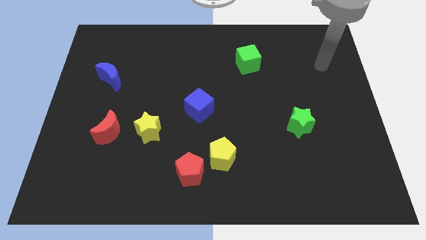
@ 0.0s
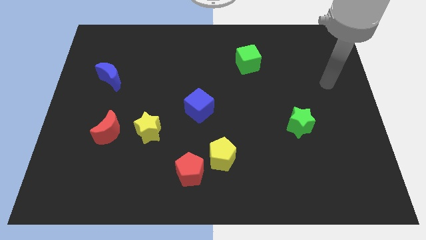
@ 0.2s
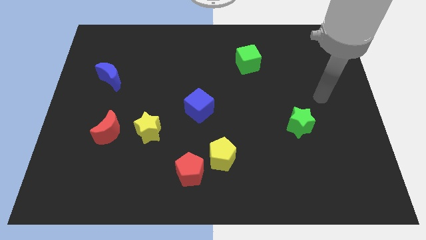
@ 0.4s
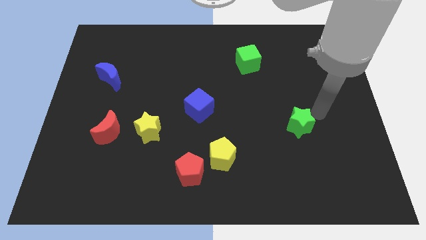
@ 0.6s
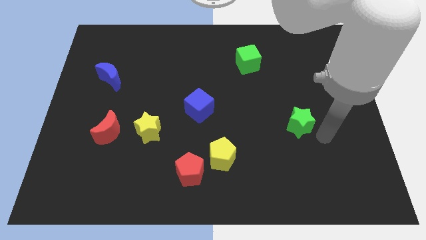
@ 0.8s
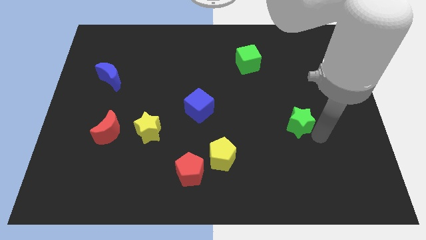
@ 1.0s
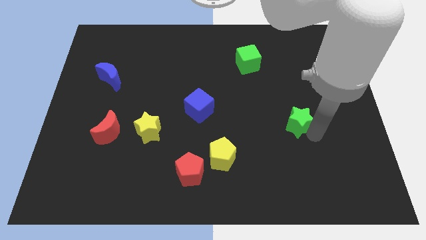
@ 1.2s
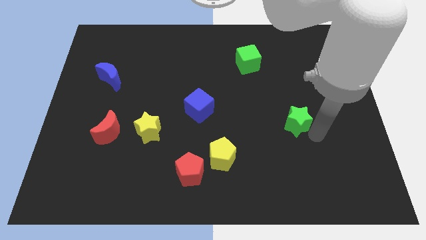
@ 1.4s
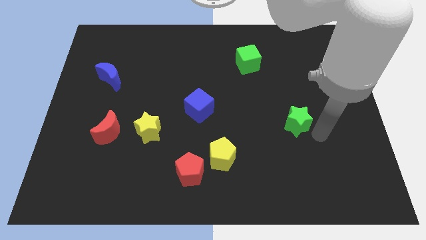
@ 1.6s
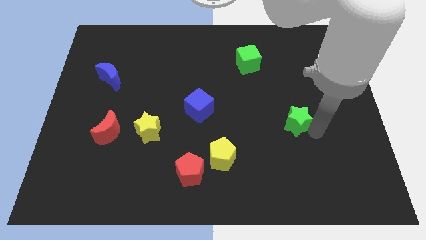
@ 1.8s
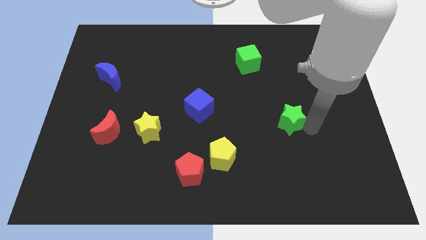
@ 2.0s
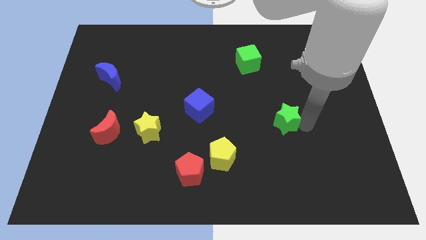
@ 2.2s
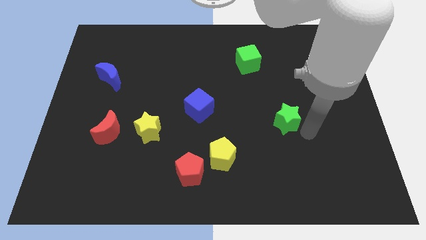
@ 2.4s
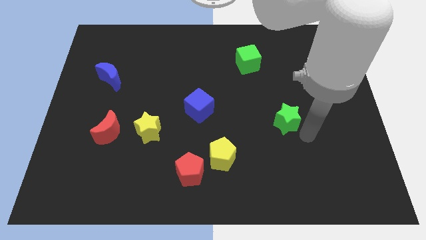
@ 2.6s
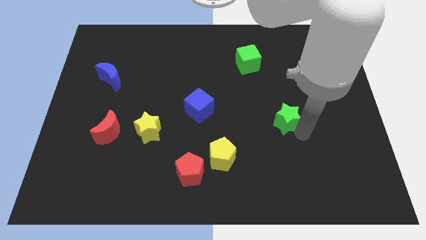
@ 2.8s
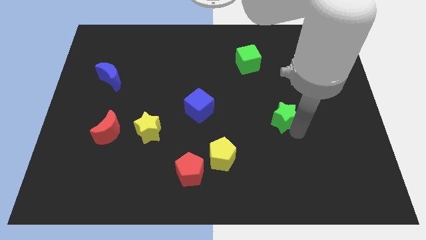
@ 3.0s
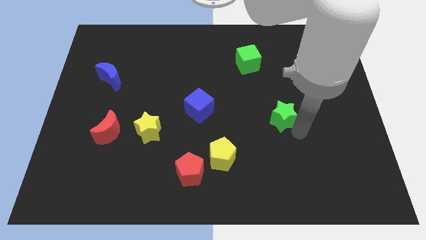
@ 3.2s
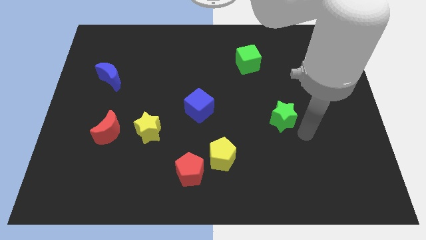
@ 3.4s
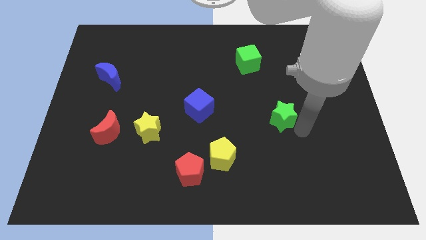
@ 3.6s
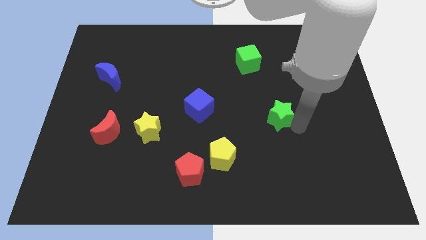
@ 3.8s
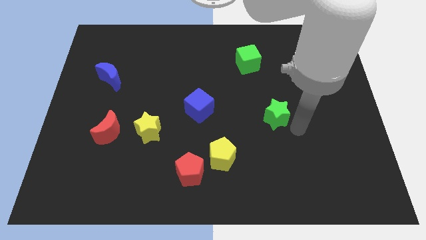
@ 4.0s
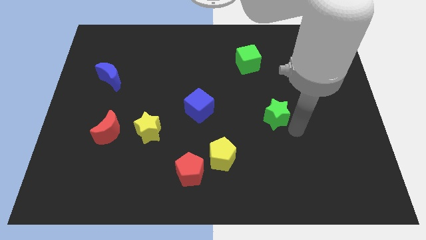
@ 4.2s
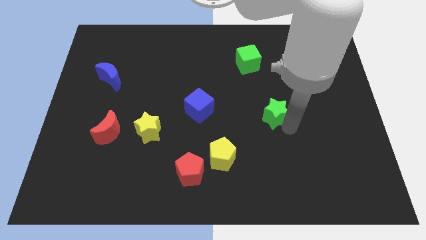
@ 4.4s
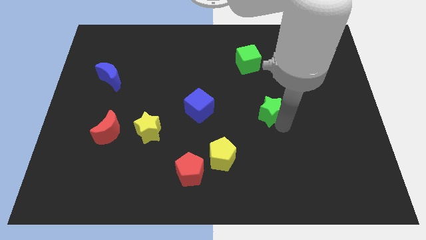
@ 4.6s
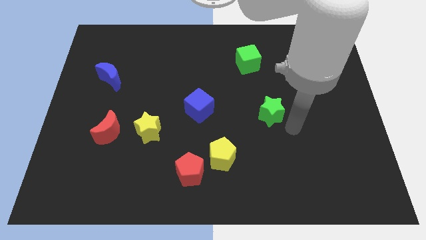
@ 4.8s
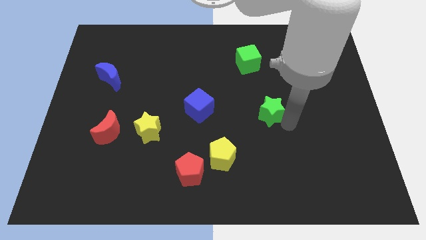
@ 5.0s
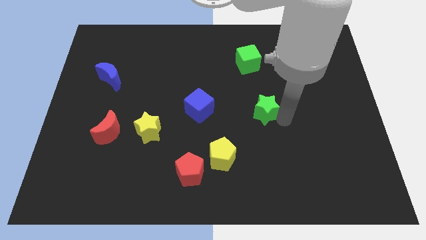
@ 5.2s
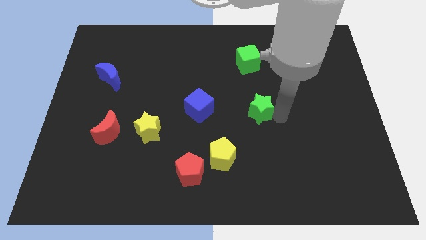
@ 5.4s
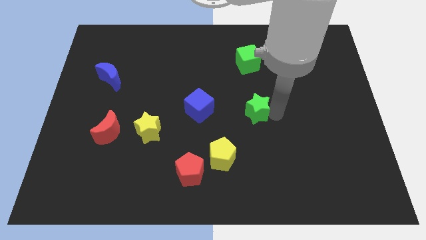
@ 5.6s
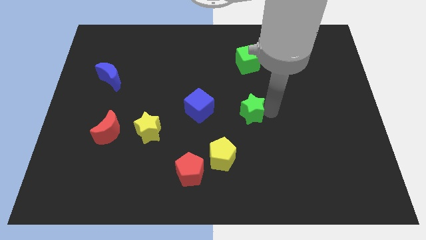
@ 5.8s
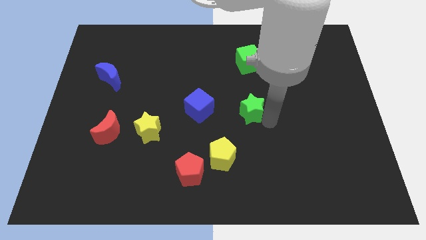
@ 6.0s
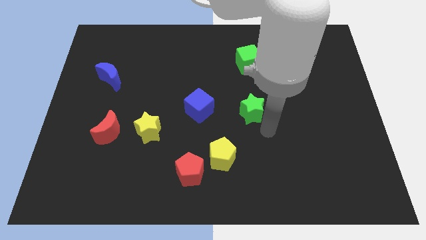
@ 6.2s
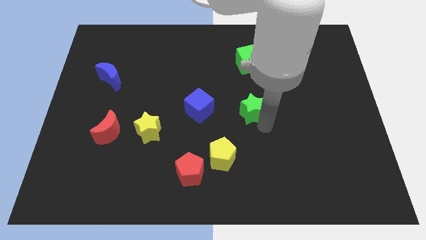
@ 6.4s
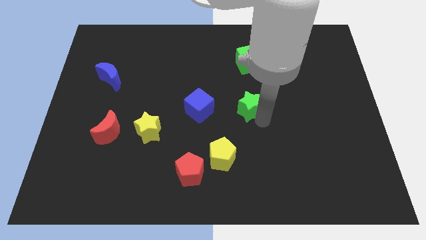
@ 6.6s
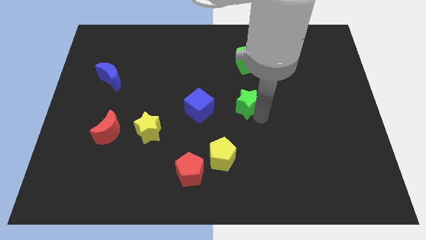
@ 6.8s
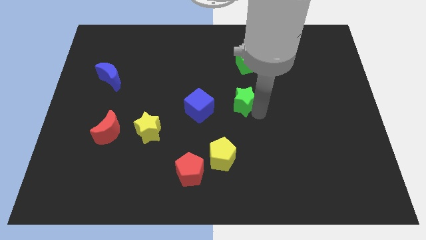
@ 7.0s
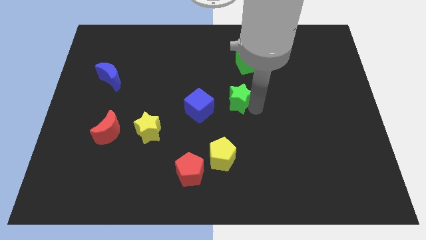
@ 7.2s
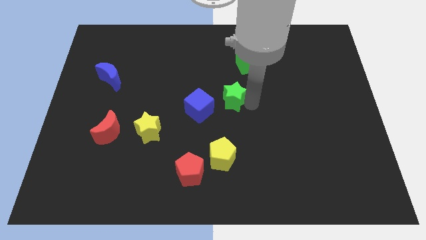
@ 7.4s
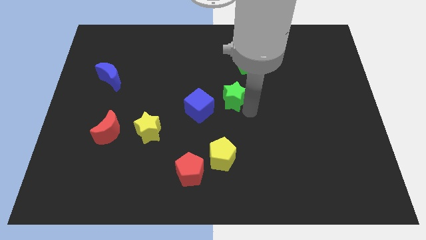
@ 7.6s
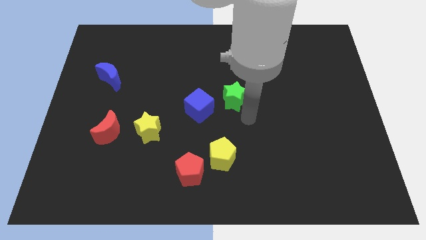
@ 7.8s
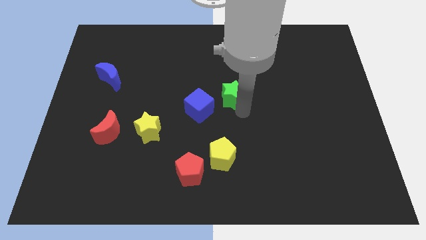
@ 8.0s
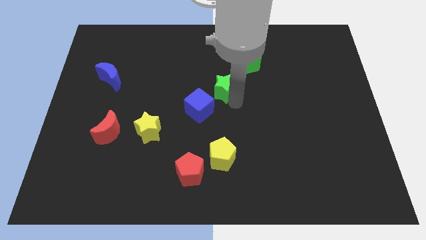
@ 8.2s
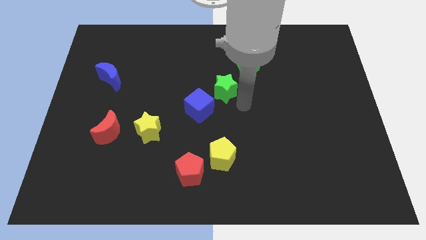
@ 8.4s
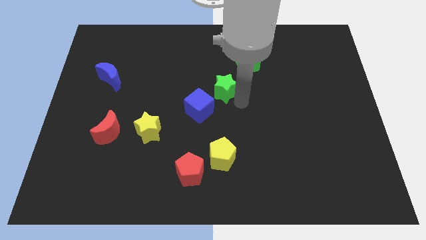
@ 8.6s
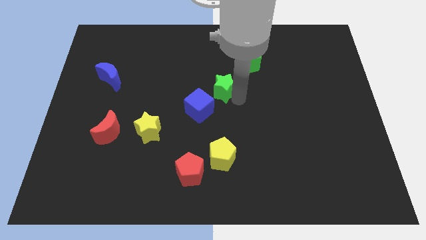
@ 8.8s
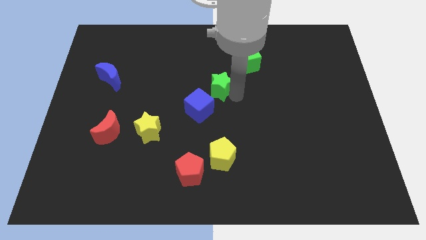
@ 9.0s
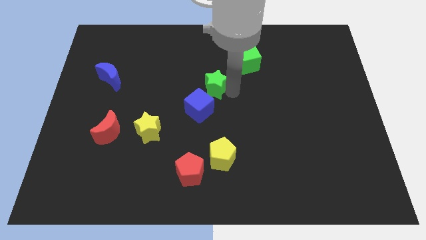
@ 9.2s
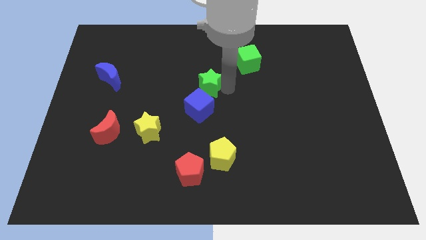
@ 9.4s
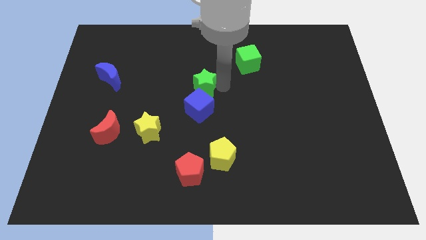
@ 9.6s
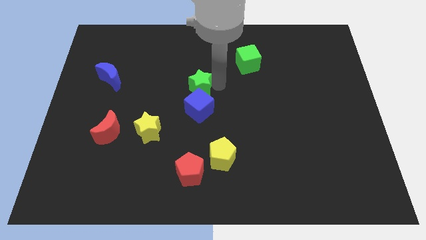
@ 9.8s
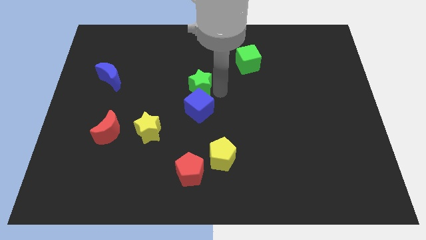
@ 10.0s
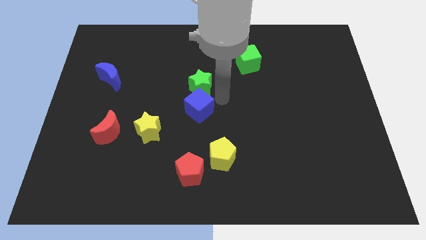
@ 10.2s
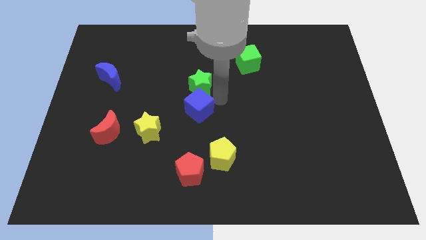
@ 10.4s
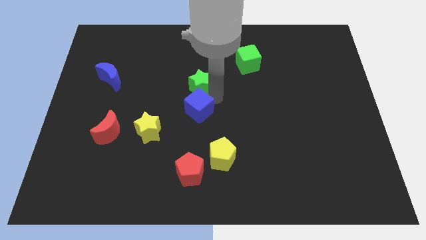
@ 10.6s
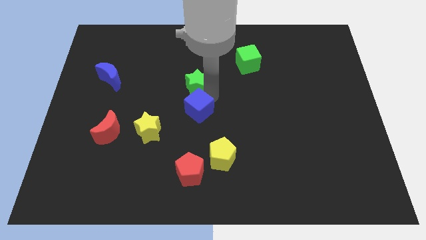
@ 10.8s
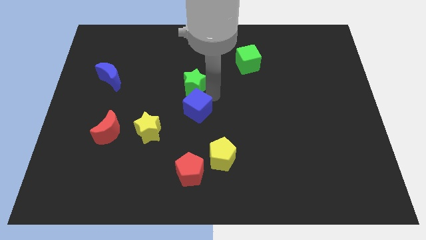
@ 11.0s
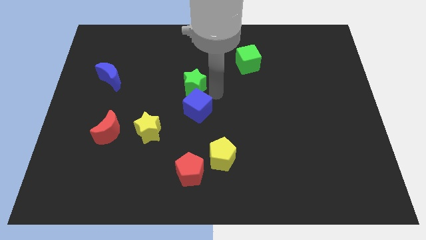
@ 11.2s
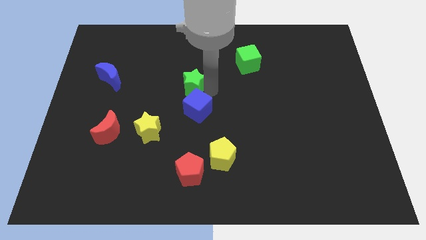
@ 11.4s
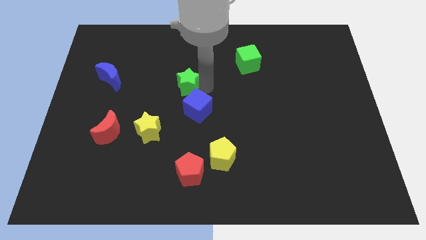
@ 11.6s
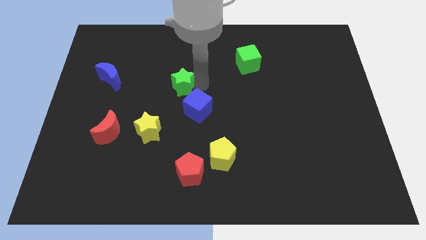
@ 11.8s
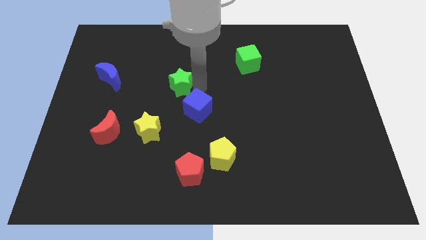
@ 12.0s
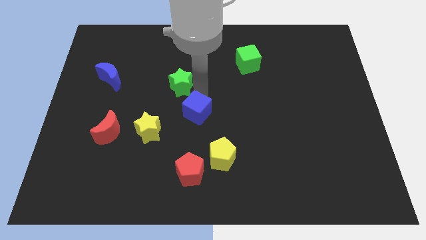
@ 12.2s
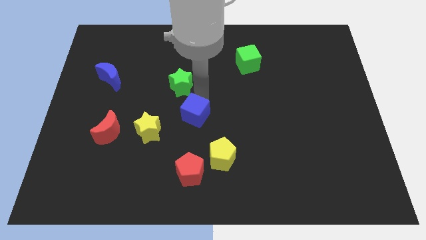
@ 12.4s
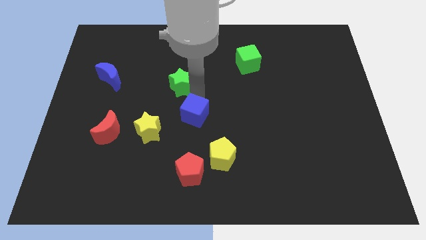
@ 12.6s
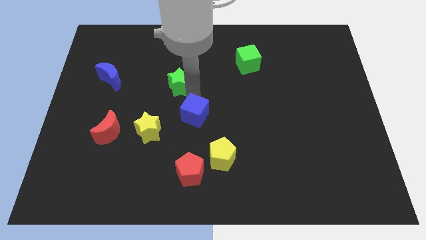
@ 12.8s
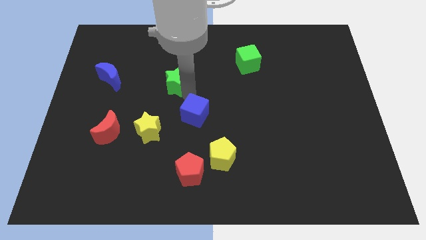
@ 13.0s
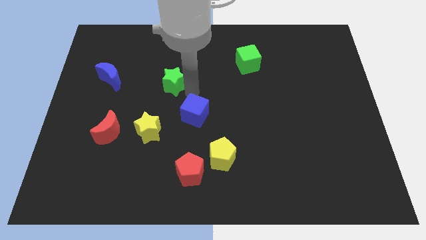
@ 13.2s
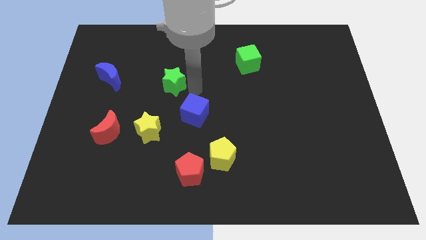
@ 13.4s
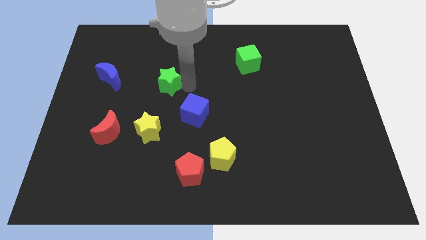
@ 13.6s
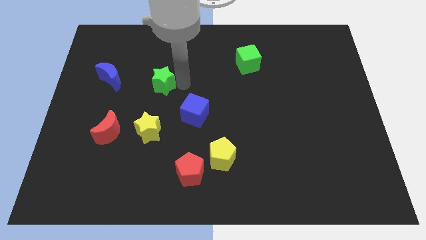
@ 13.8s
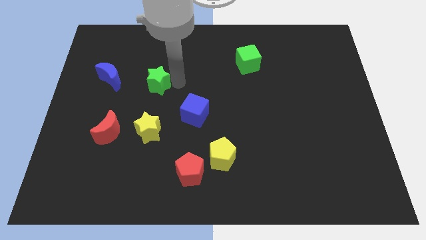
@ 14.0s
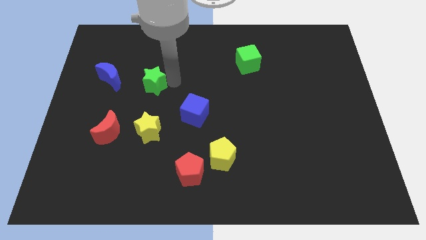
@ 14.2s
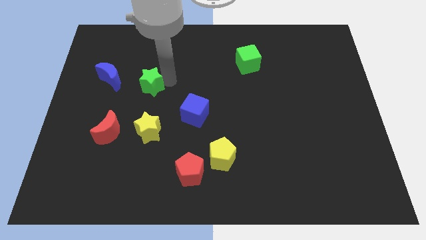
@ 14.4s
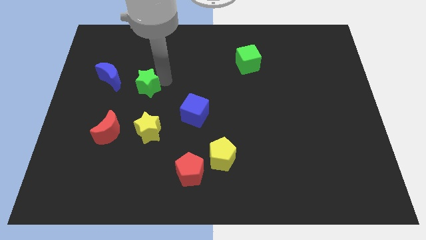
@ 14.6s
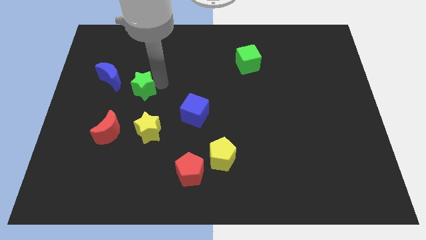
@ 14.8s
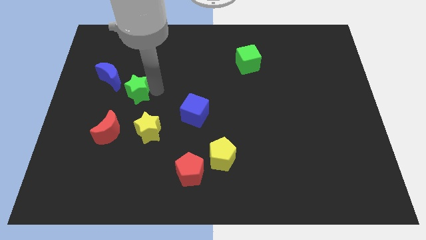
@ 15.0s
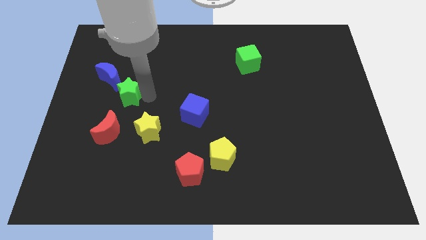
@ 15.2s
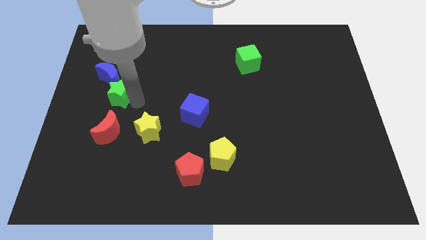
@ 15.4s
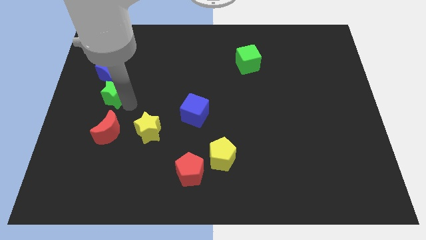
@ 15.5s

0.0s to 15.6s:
push the green star to the blue moon
